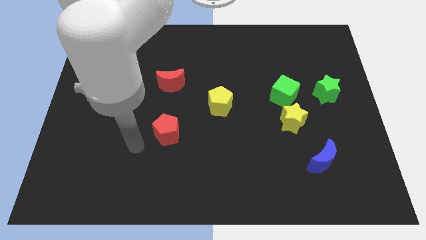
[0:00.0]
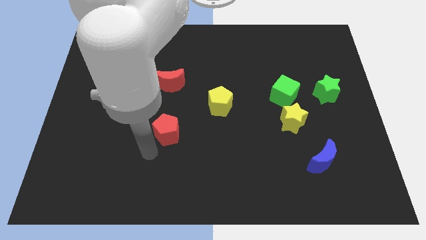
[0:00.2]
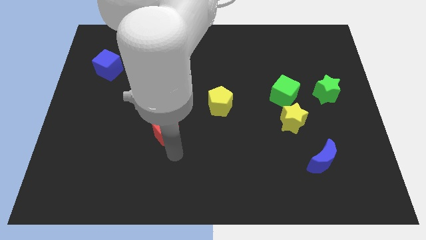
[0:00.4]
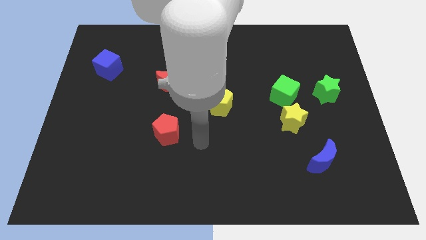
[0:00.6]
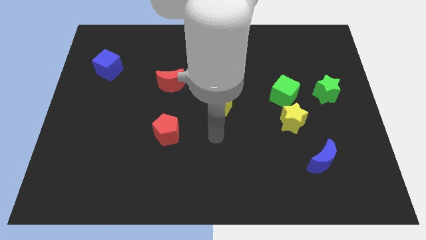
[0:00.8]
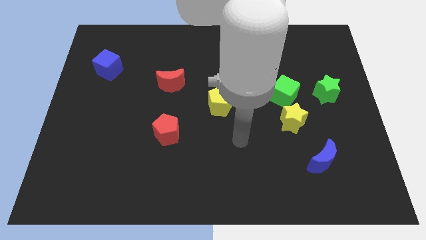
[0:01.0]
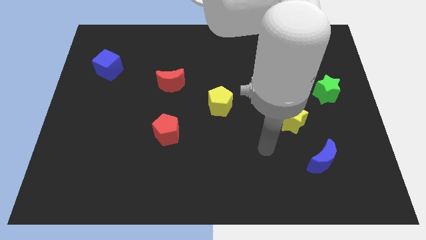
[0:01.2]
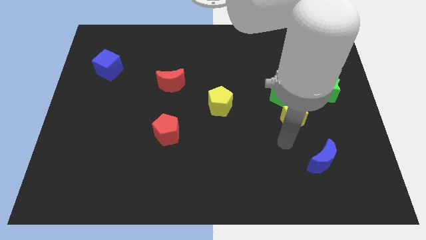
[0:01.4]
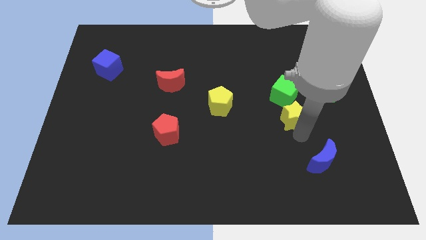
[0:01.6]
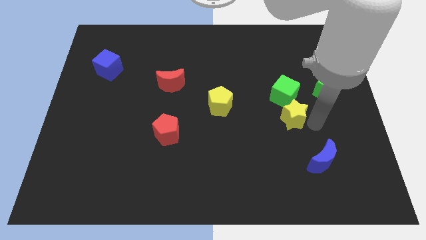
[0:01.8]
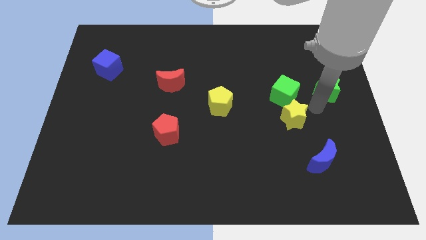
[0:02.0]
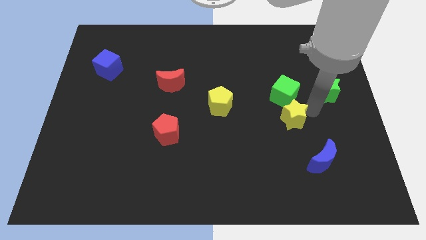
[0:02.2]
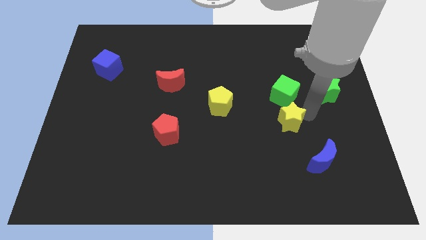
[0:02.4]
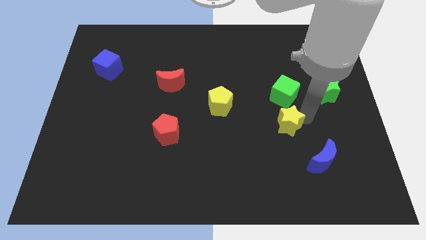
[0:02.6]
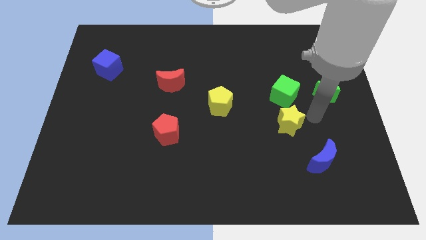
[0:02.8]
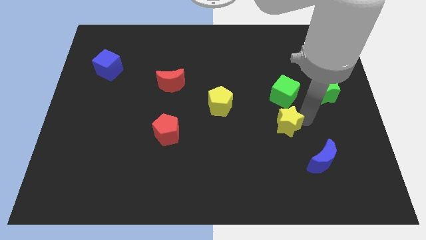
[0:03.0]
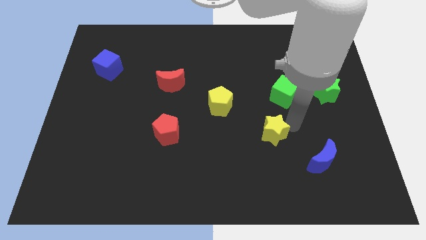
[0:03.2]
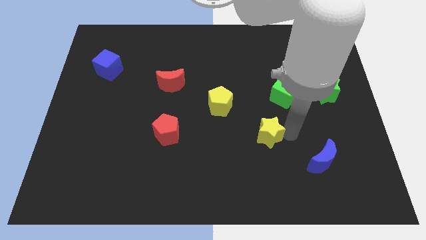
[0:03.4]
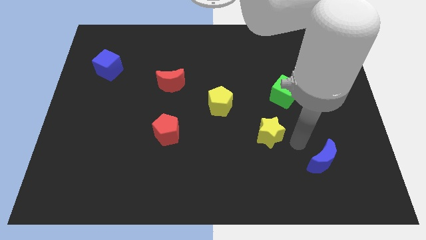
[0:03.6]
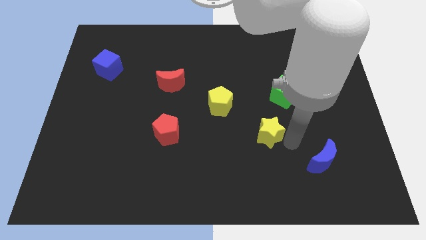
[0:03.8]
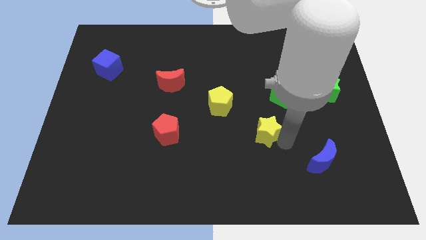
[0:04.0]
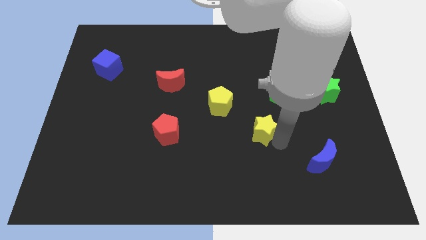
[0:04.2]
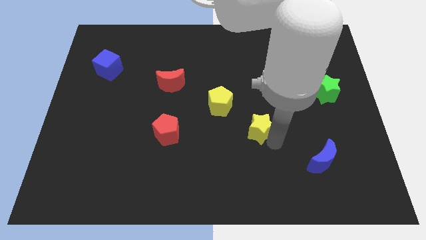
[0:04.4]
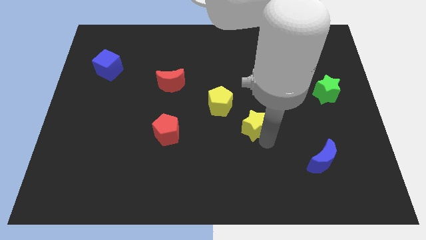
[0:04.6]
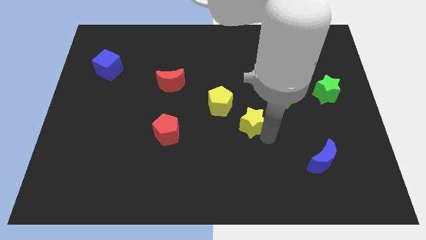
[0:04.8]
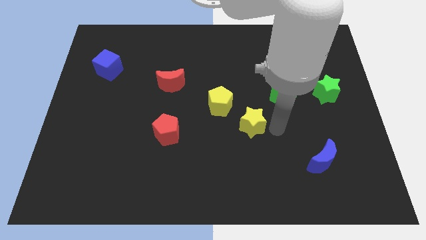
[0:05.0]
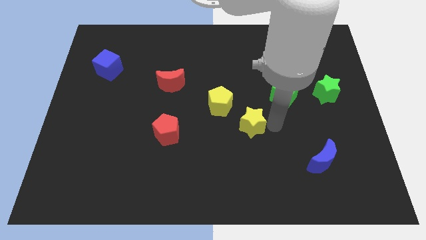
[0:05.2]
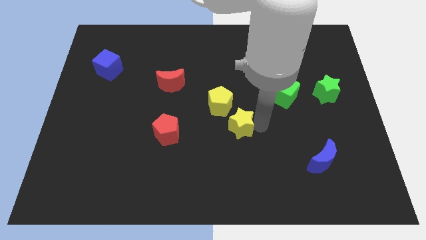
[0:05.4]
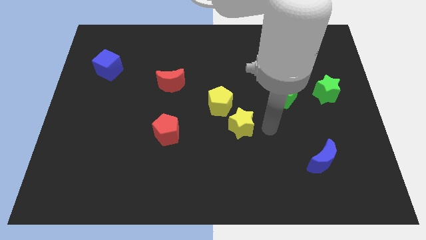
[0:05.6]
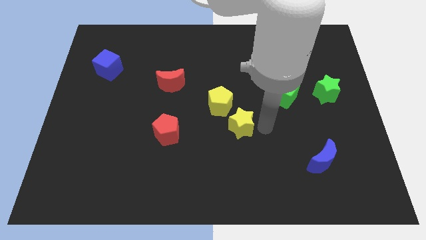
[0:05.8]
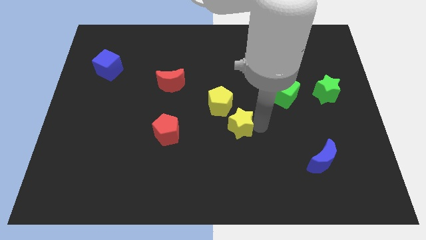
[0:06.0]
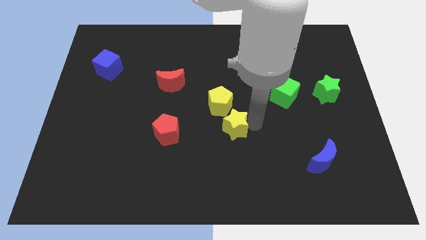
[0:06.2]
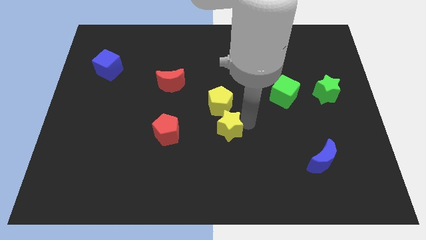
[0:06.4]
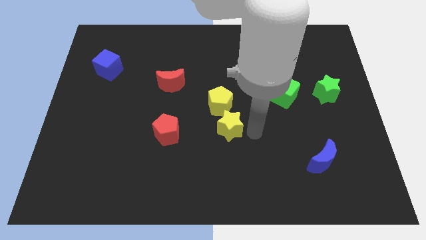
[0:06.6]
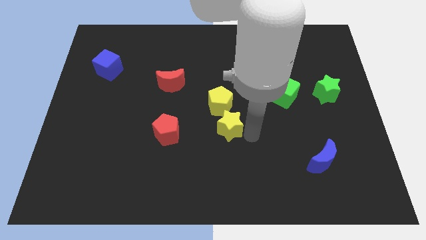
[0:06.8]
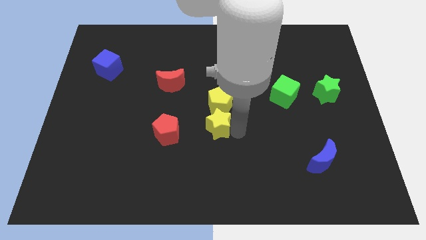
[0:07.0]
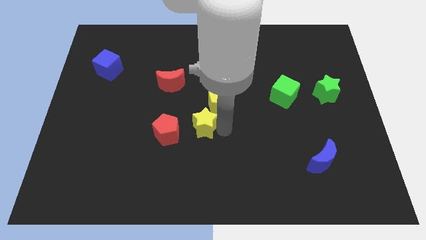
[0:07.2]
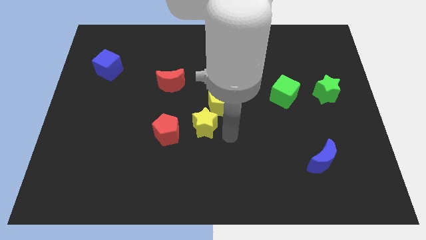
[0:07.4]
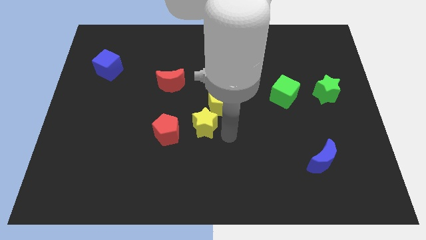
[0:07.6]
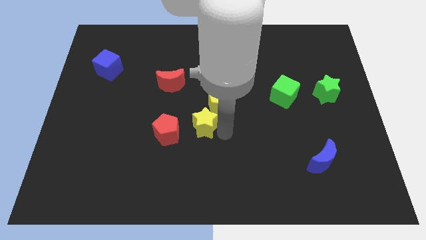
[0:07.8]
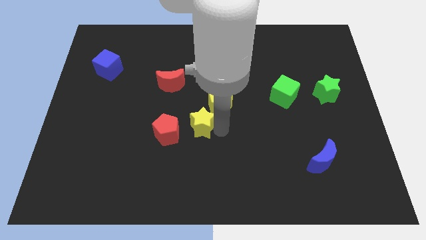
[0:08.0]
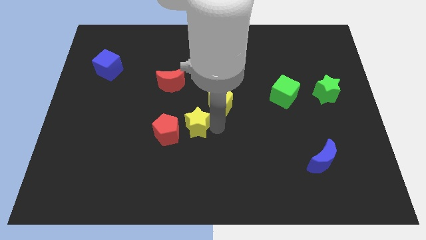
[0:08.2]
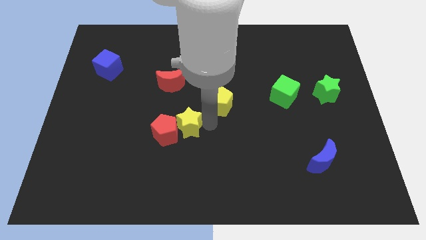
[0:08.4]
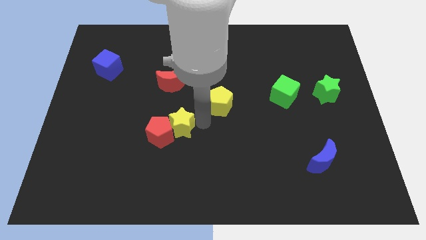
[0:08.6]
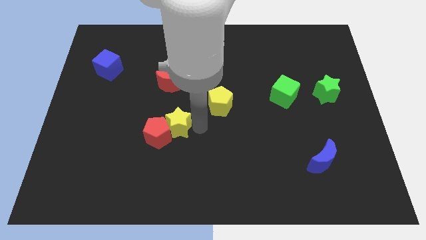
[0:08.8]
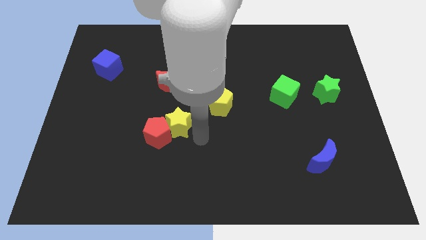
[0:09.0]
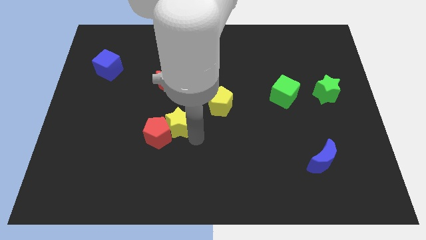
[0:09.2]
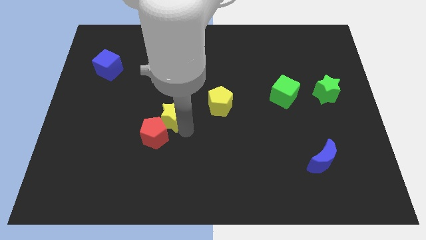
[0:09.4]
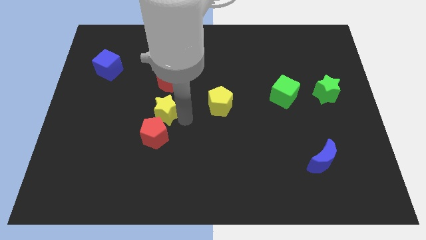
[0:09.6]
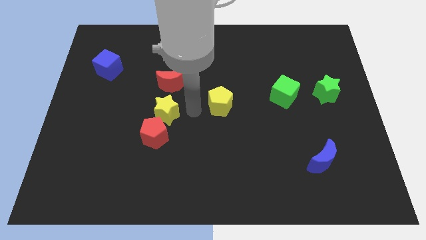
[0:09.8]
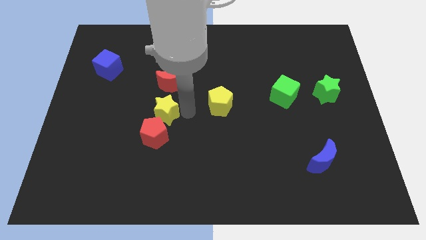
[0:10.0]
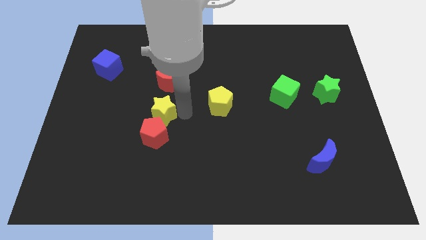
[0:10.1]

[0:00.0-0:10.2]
move the yellow star to the top left of the red pentagon

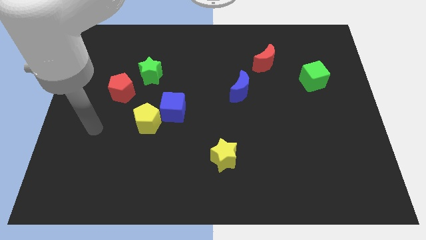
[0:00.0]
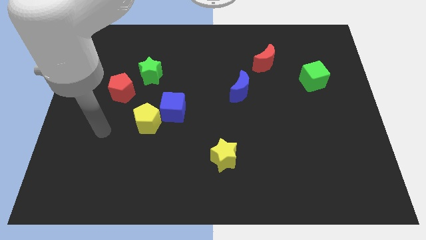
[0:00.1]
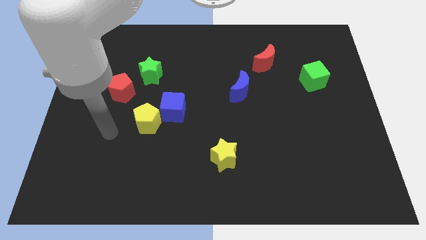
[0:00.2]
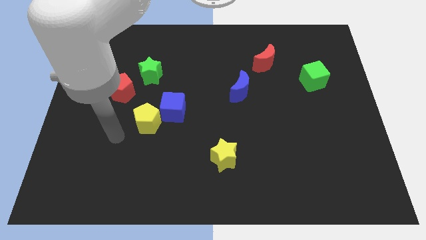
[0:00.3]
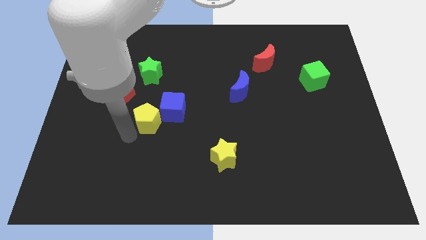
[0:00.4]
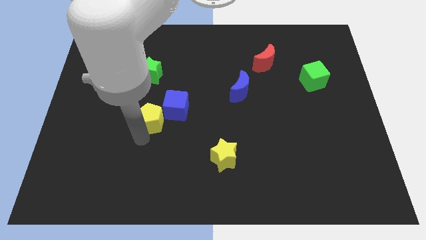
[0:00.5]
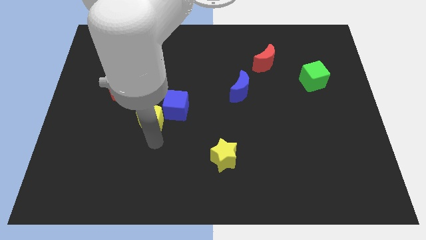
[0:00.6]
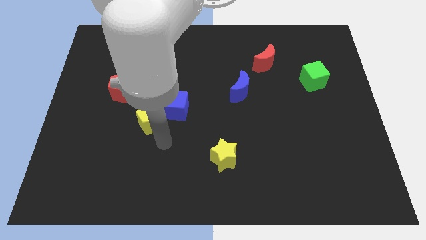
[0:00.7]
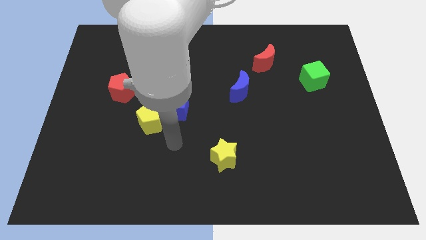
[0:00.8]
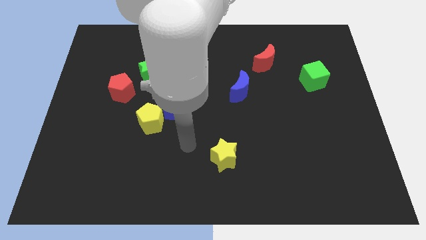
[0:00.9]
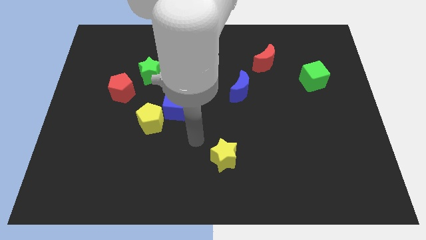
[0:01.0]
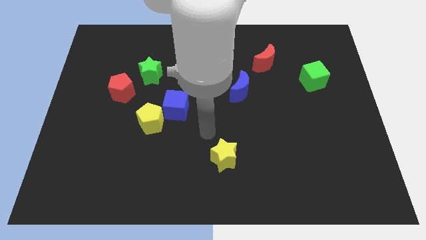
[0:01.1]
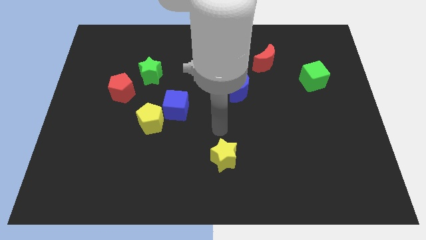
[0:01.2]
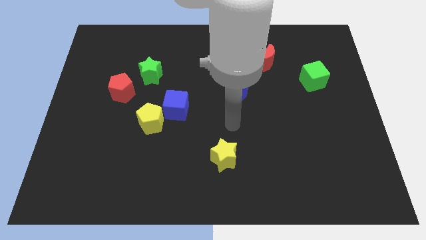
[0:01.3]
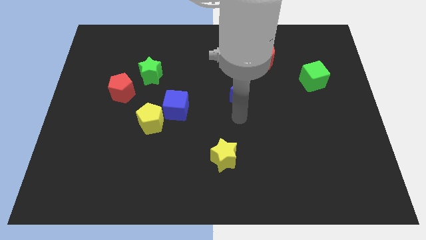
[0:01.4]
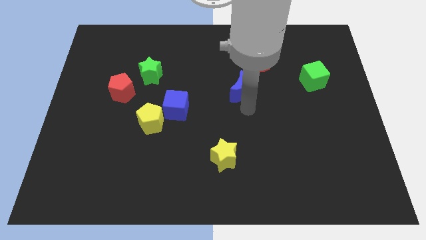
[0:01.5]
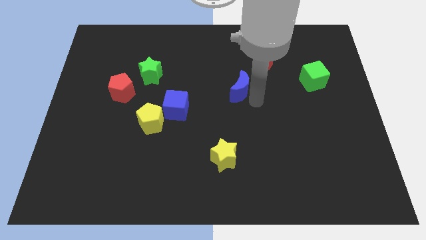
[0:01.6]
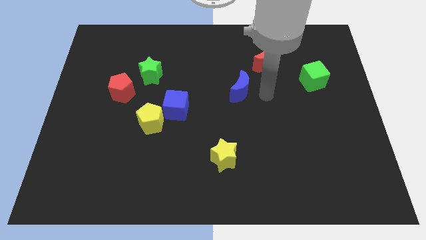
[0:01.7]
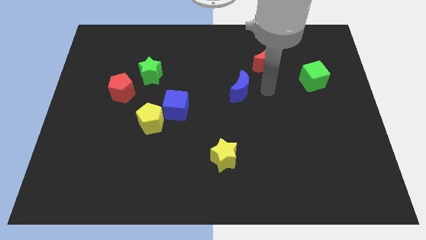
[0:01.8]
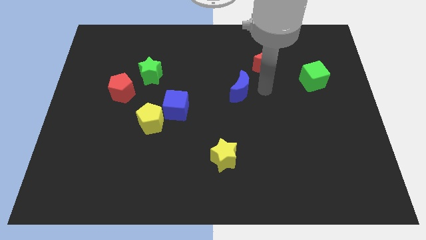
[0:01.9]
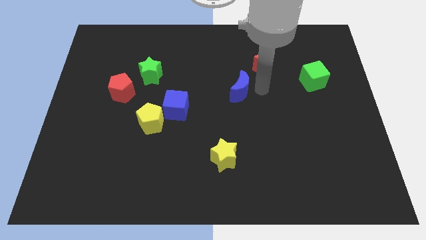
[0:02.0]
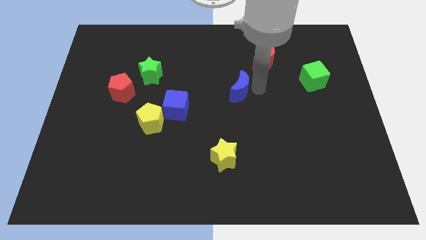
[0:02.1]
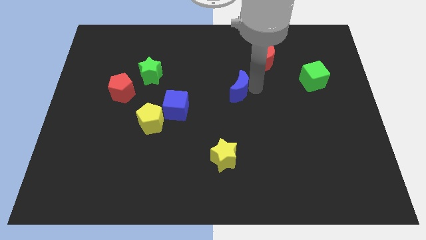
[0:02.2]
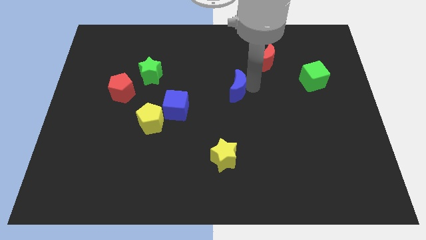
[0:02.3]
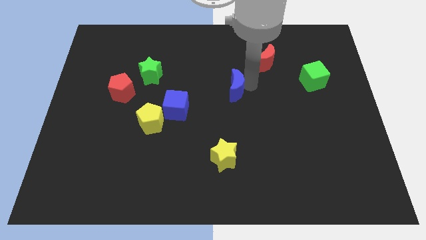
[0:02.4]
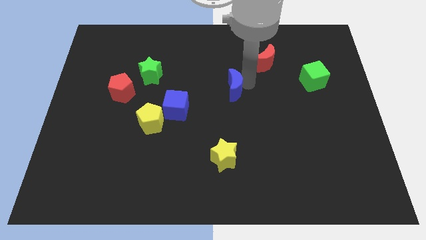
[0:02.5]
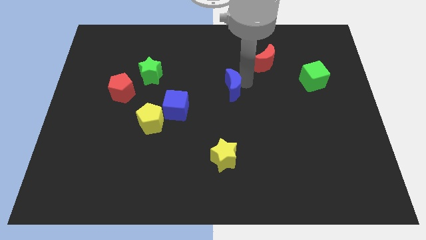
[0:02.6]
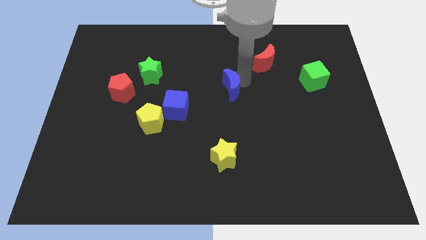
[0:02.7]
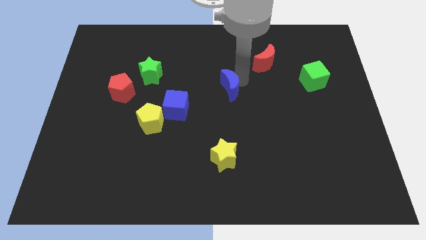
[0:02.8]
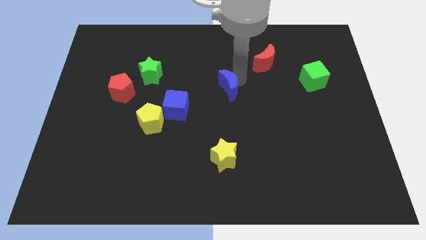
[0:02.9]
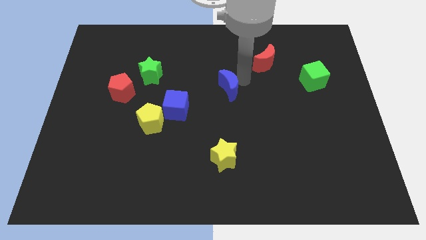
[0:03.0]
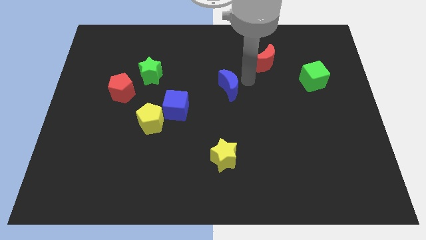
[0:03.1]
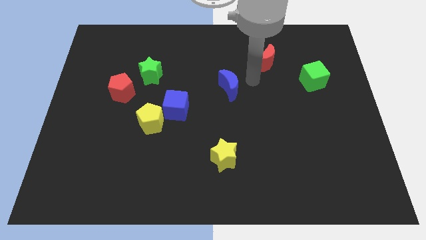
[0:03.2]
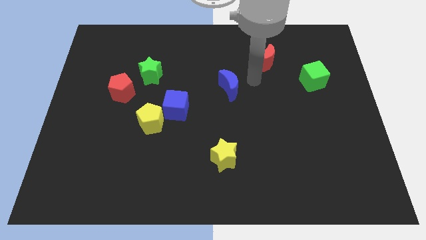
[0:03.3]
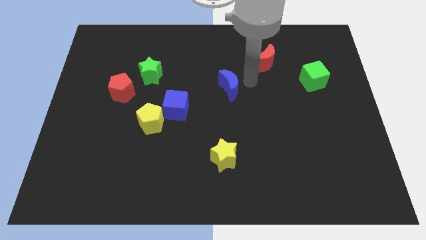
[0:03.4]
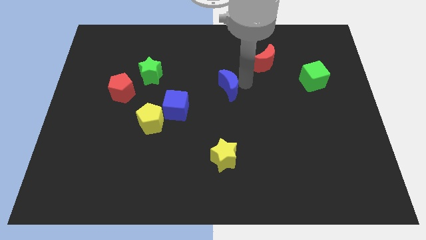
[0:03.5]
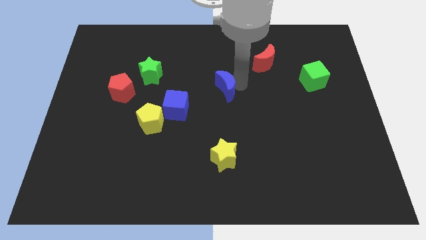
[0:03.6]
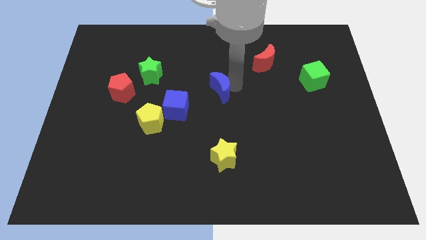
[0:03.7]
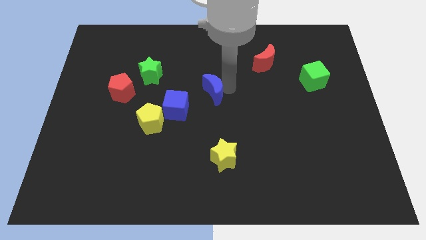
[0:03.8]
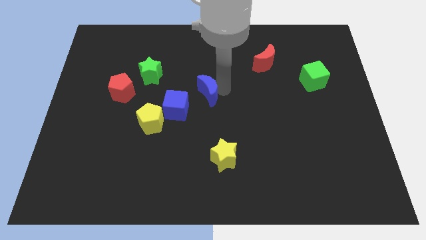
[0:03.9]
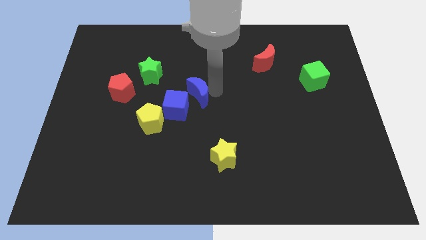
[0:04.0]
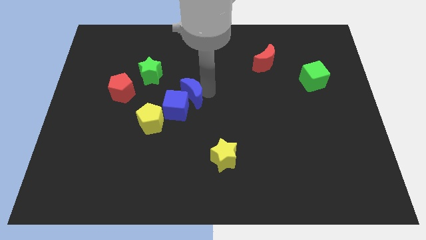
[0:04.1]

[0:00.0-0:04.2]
move the blue moon to the top right of the yellow pentagon
